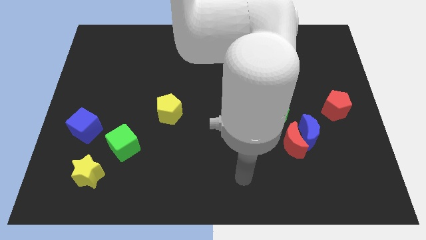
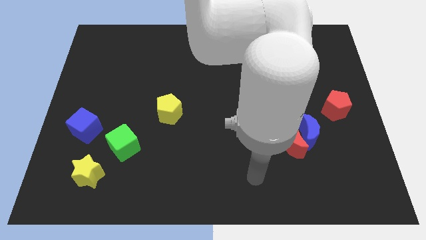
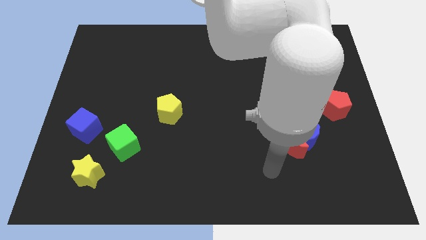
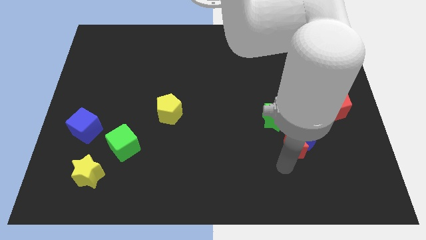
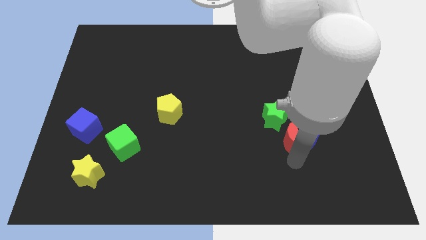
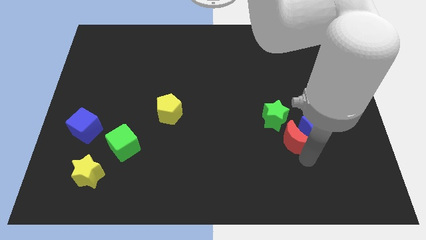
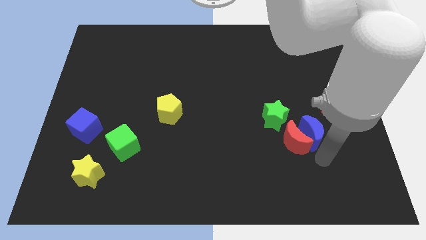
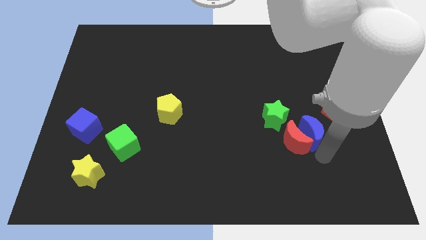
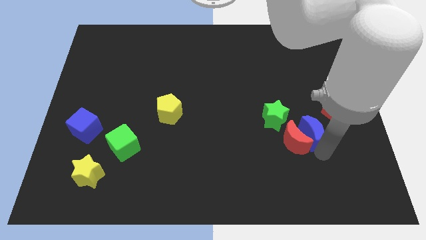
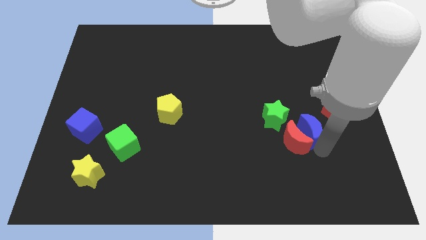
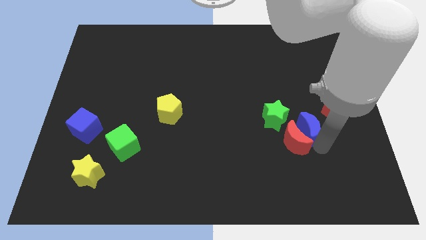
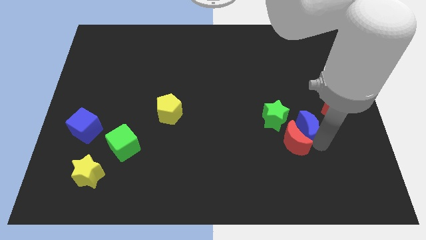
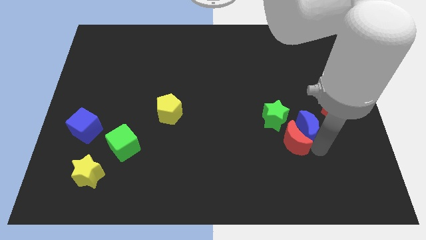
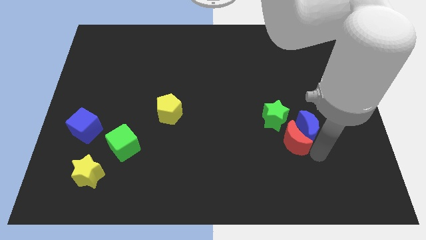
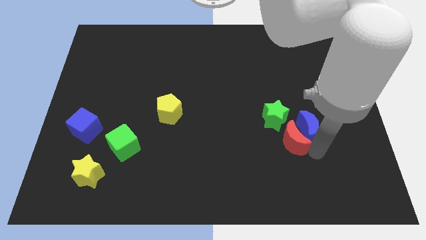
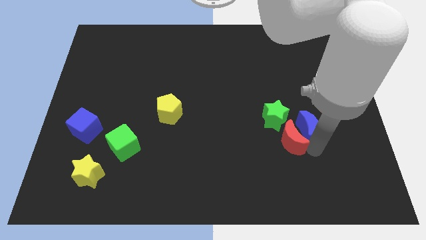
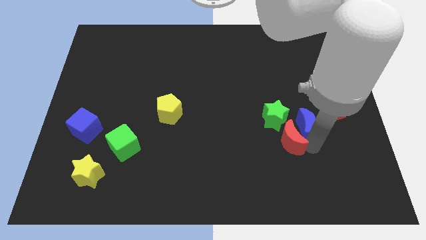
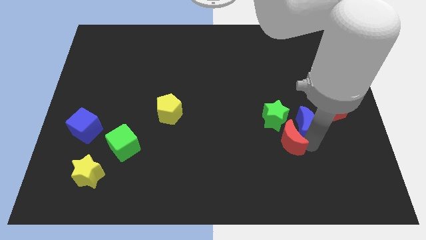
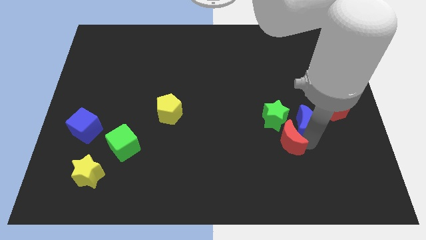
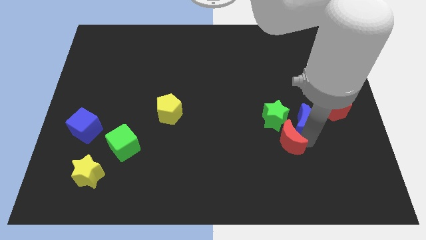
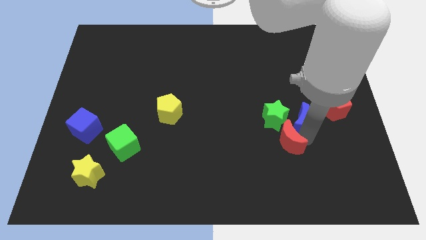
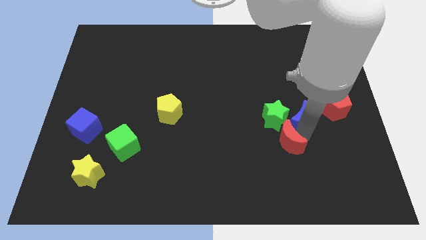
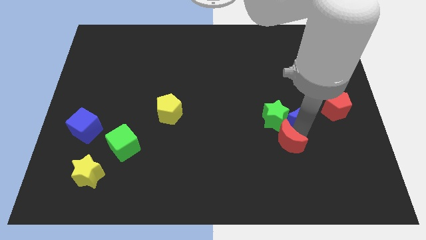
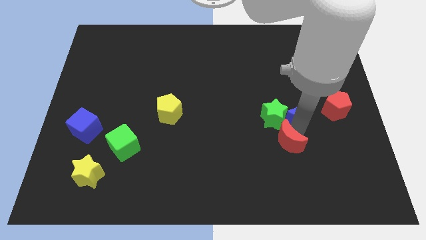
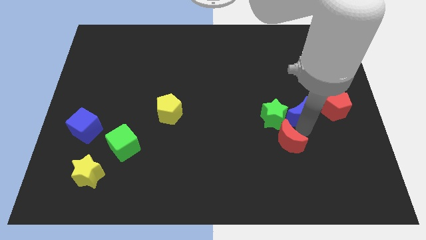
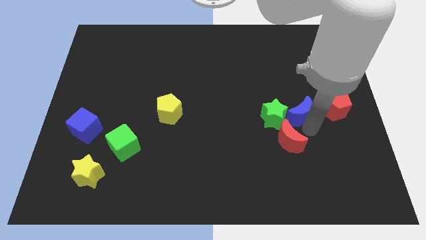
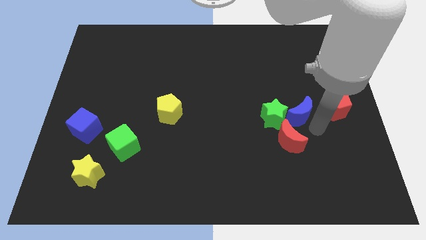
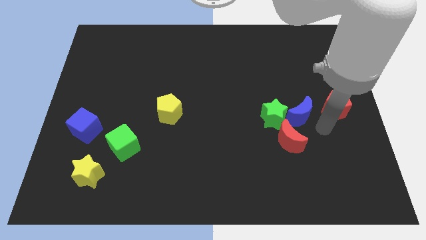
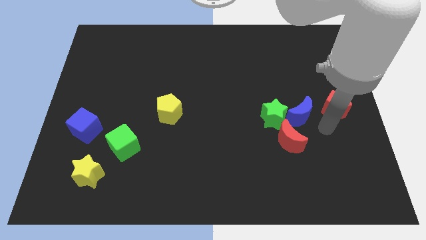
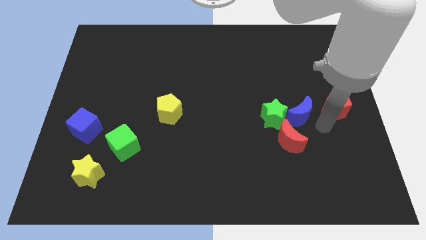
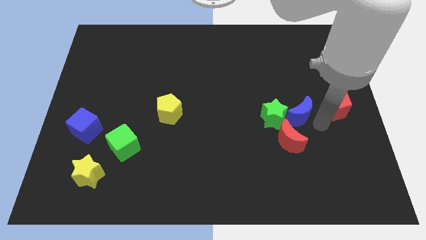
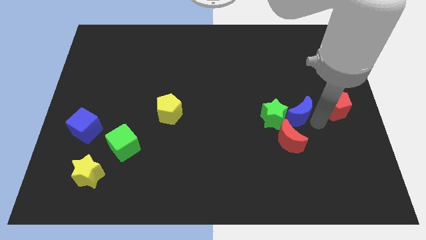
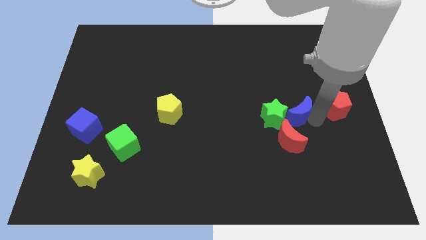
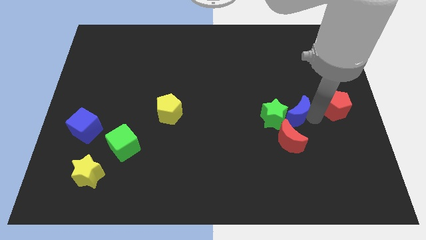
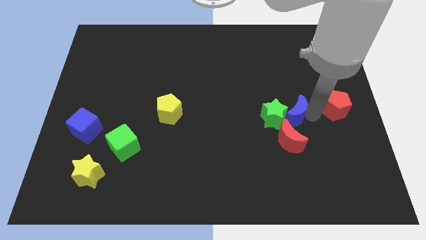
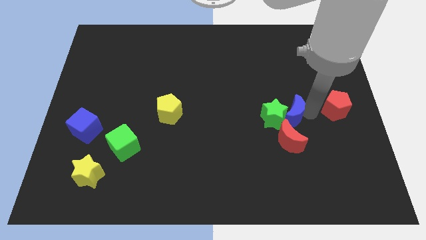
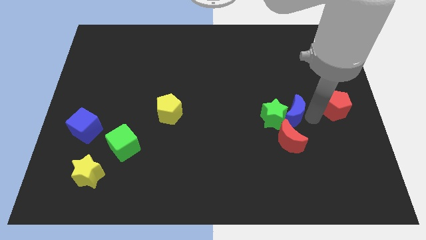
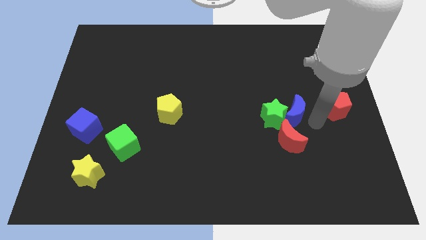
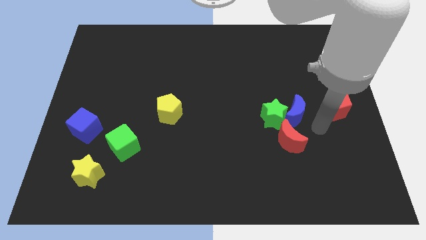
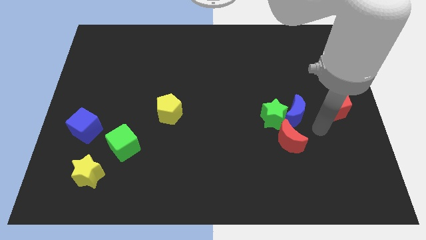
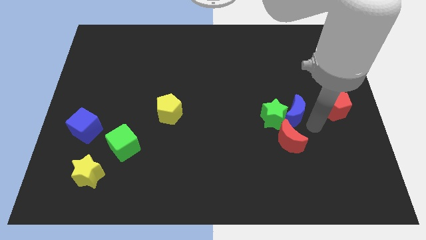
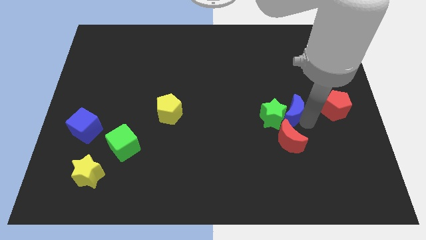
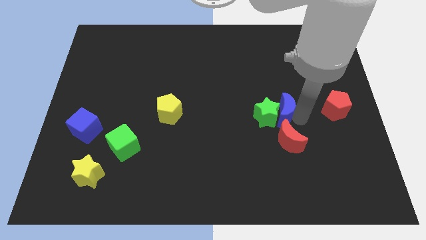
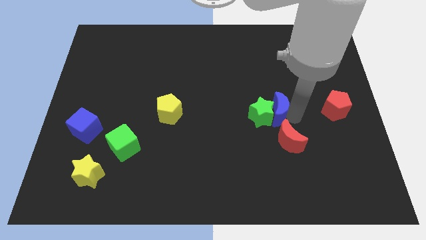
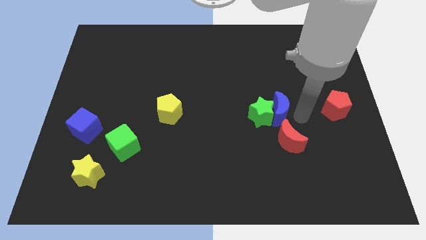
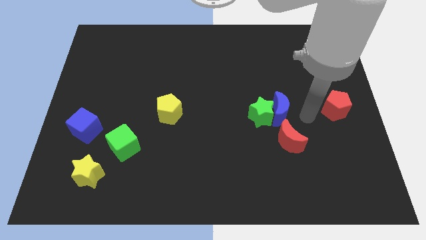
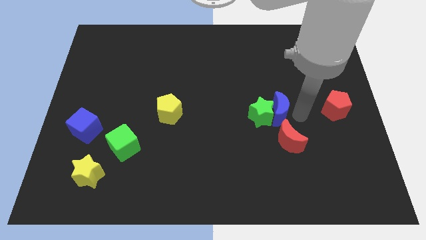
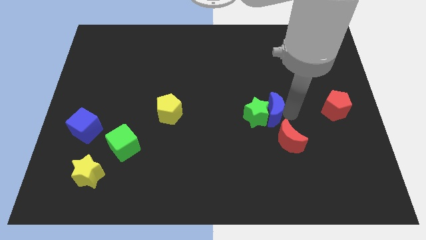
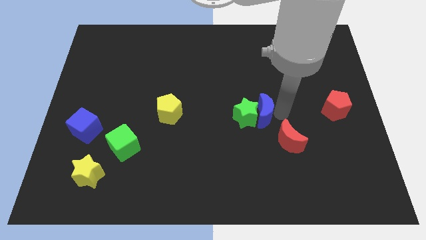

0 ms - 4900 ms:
slide the blue moon to the middle

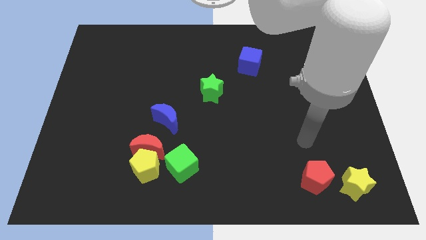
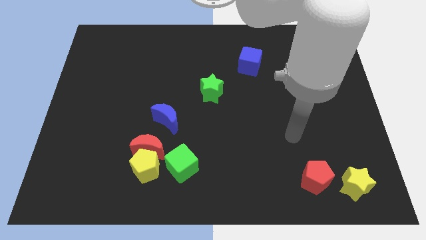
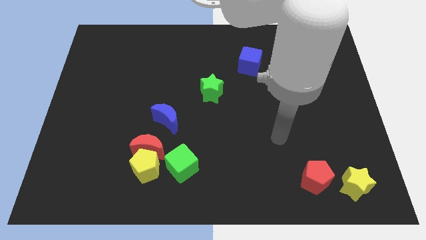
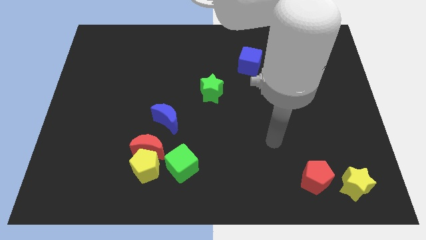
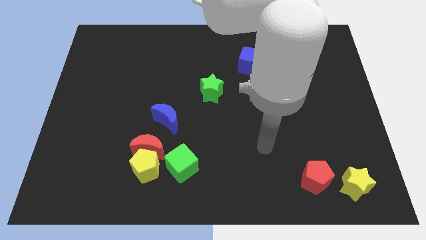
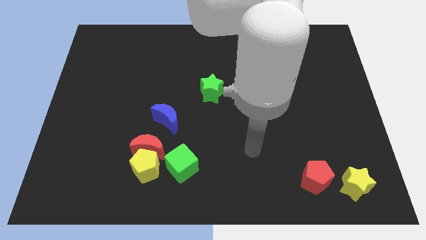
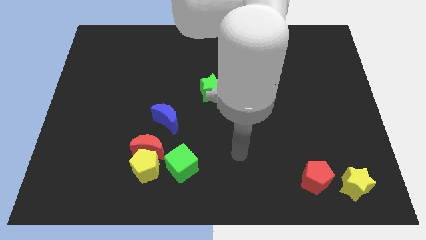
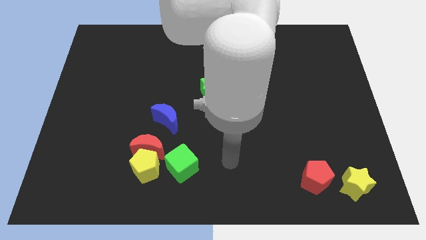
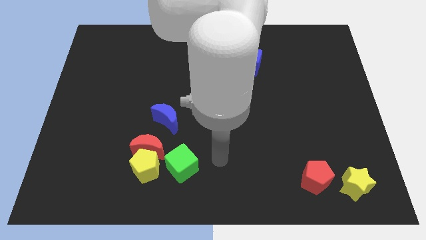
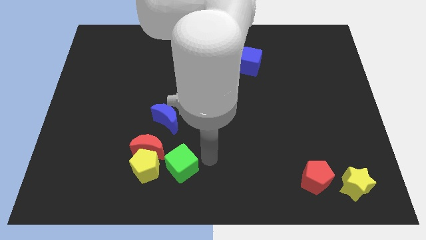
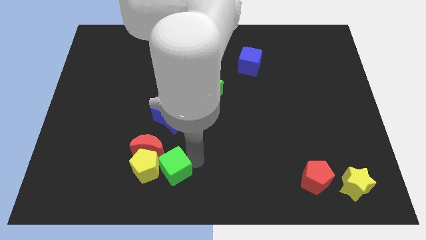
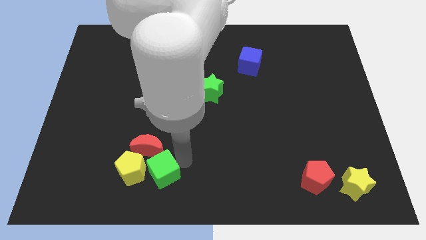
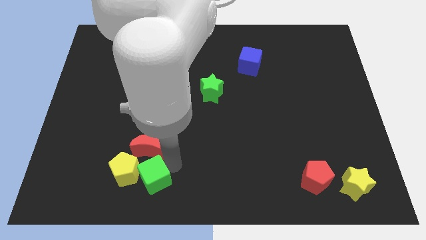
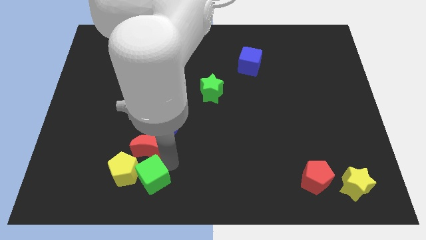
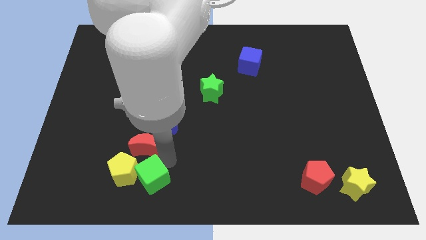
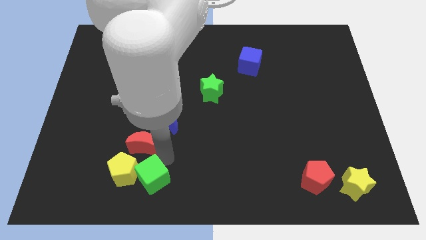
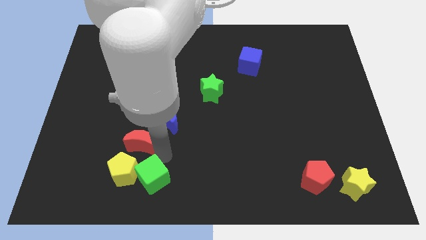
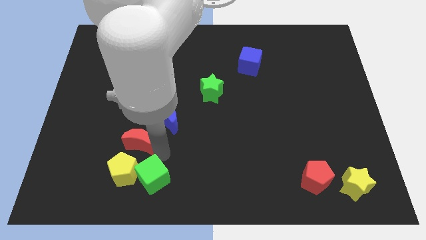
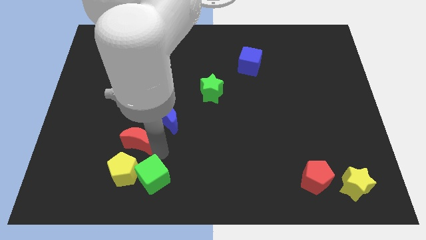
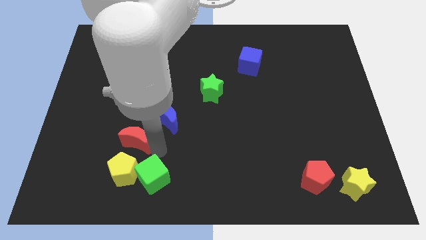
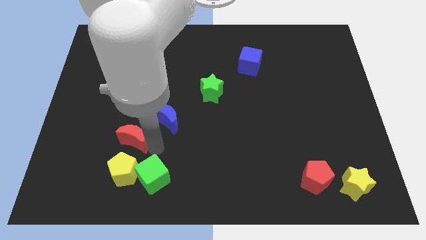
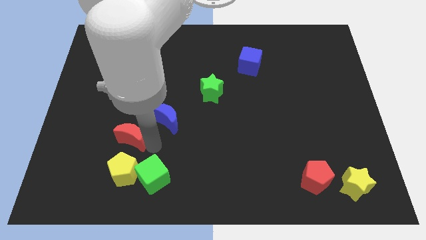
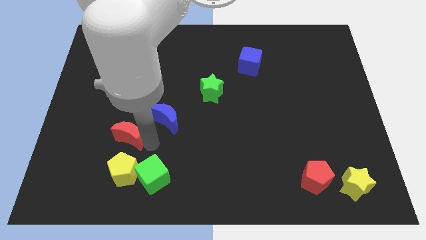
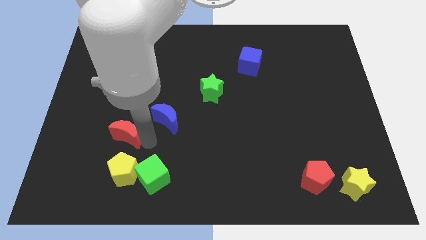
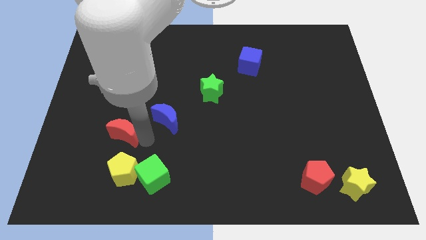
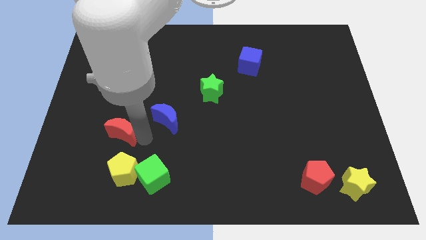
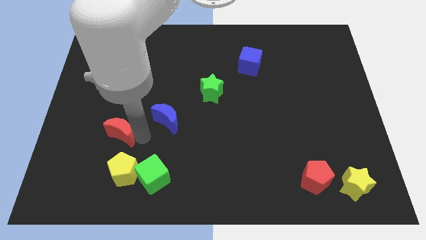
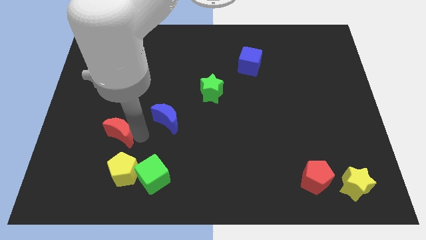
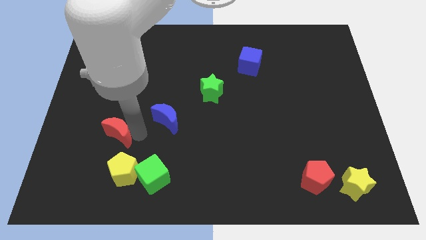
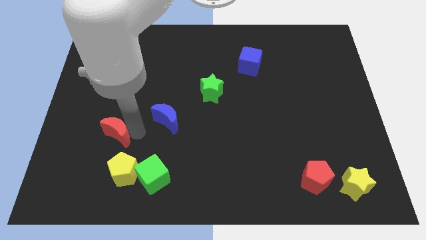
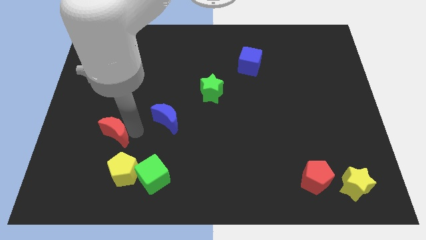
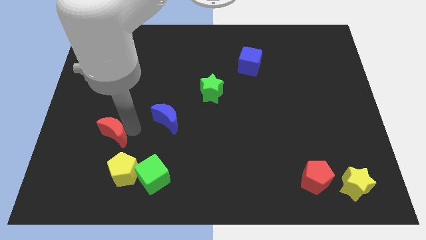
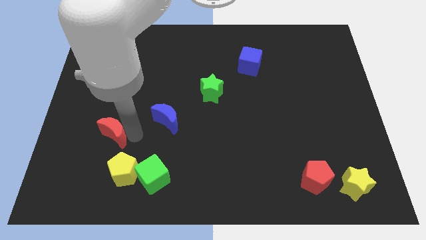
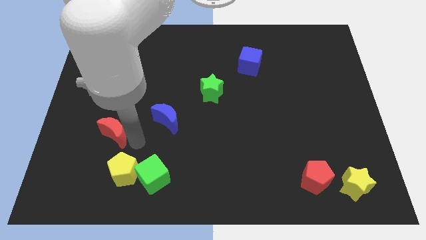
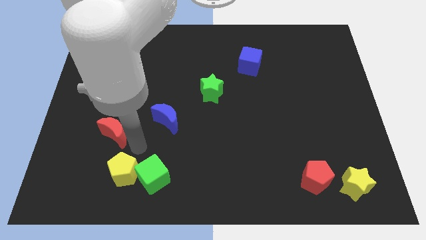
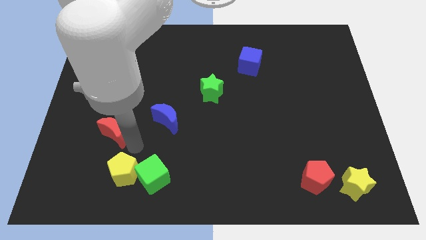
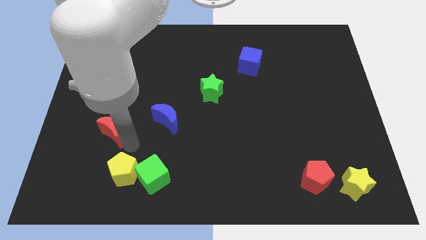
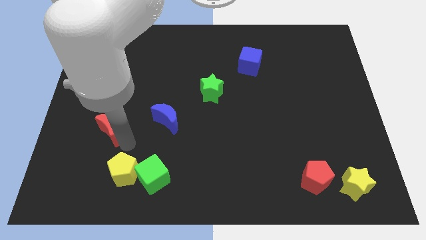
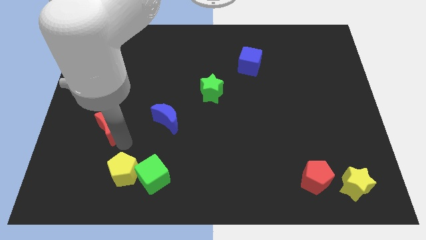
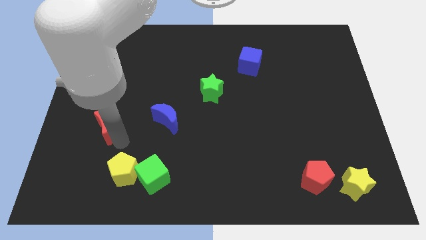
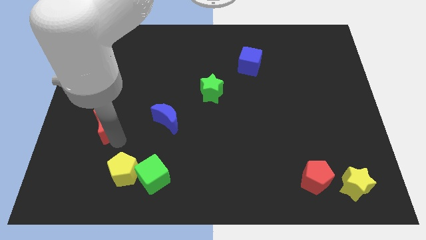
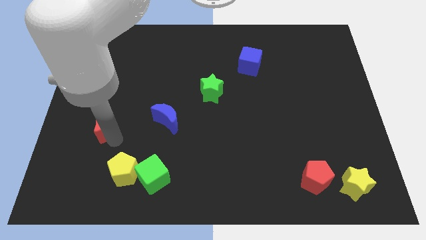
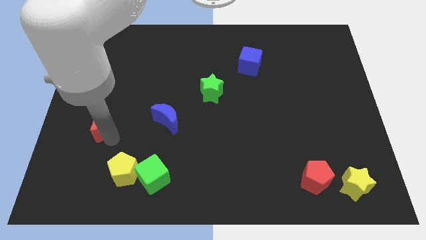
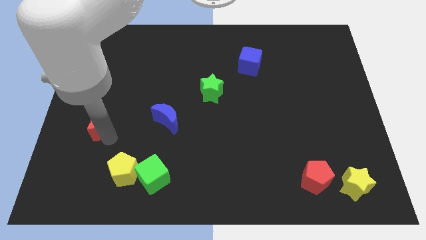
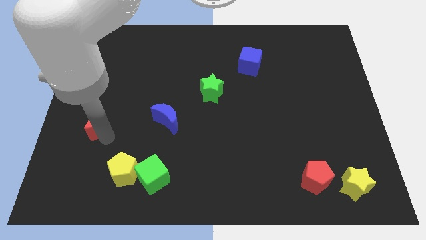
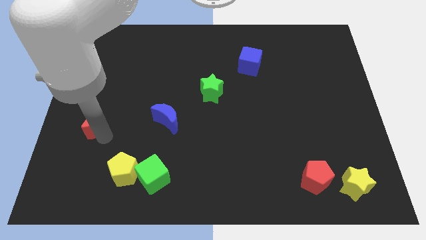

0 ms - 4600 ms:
put the red moon to the center left
